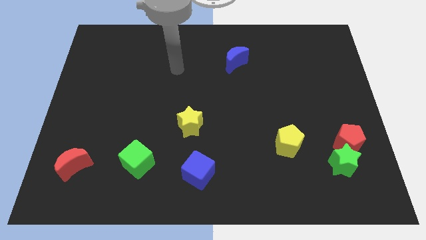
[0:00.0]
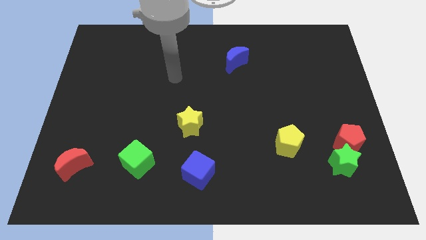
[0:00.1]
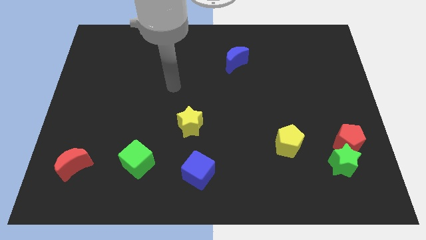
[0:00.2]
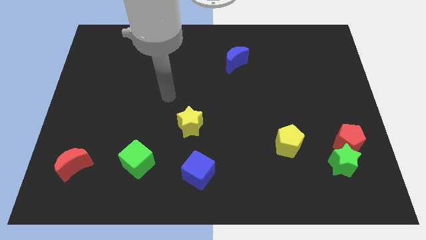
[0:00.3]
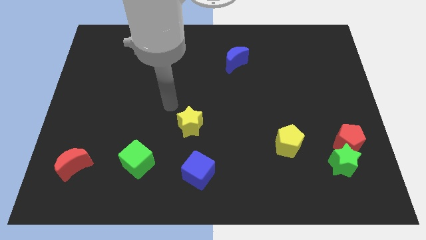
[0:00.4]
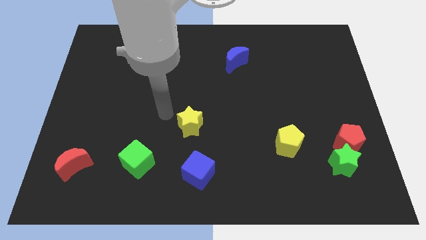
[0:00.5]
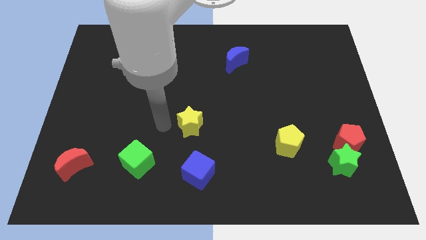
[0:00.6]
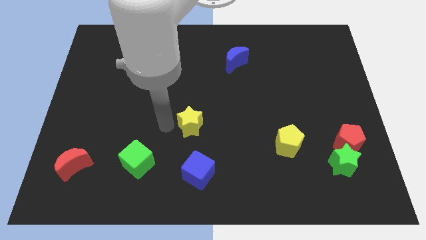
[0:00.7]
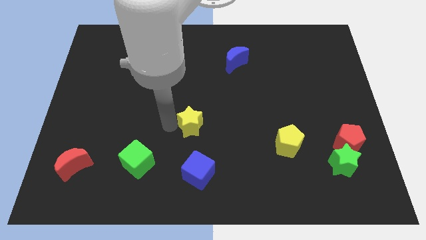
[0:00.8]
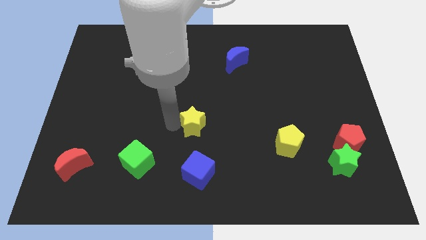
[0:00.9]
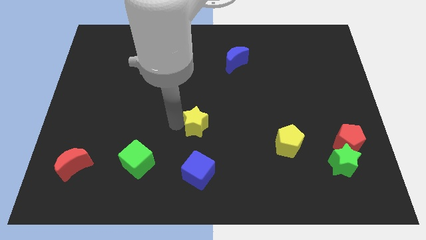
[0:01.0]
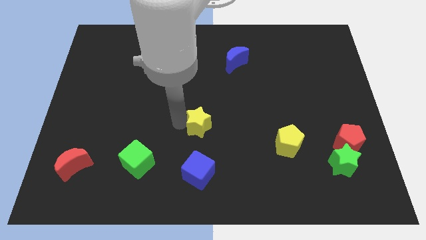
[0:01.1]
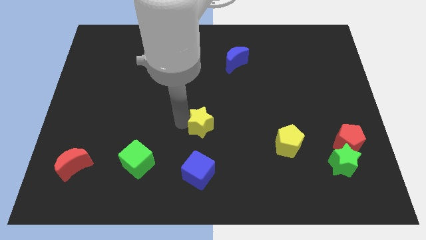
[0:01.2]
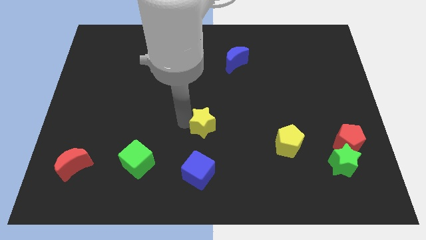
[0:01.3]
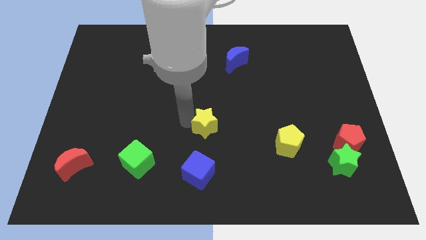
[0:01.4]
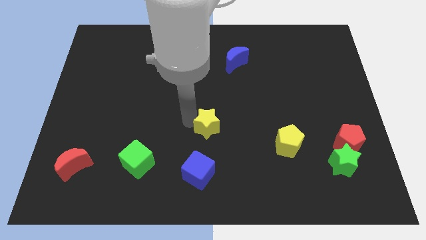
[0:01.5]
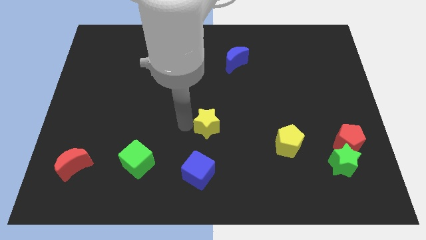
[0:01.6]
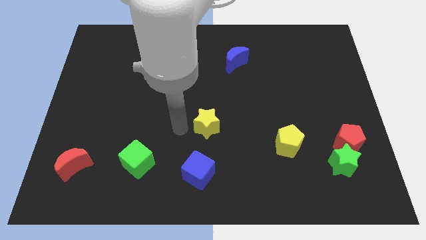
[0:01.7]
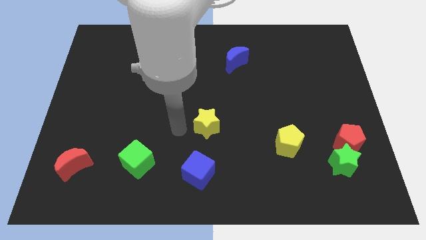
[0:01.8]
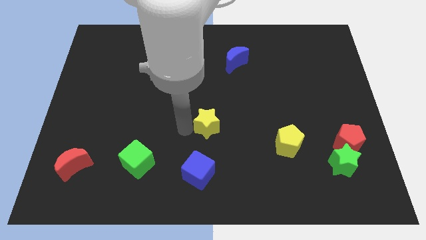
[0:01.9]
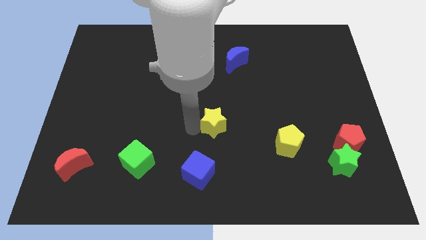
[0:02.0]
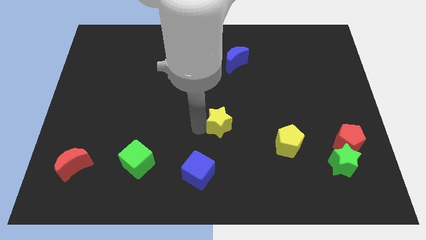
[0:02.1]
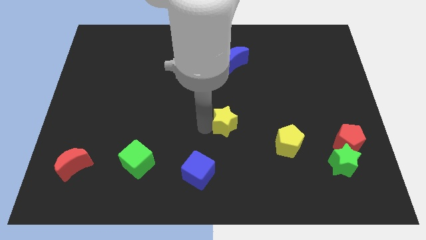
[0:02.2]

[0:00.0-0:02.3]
move the yellow star somewhat to the right

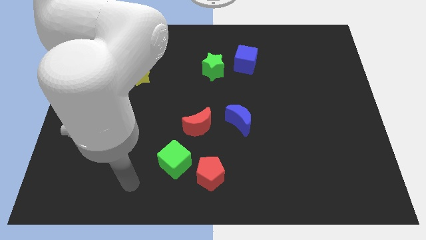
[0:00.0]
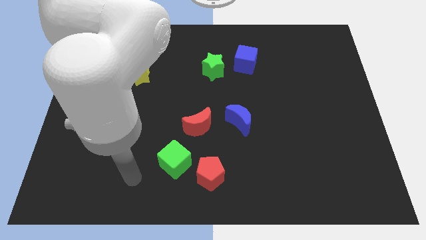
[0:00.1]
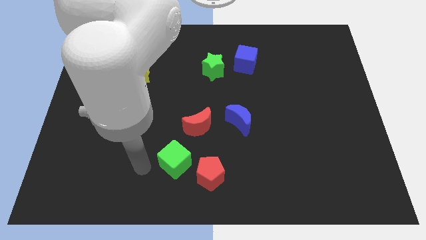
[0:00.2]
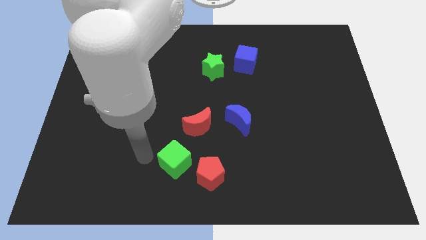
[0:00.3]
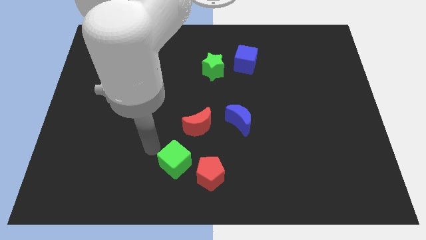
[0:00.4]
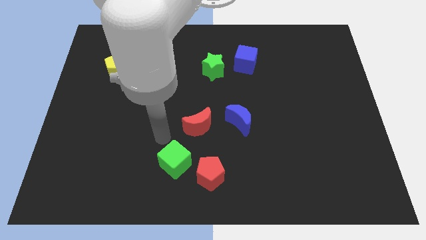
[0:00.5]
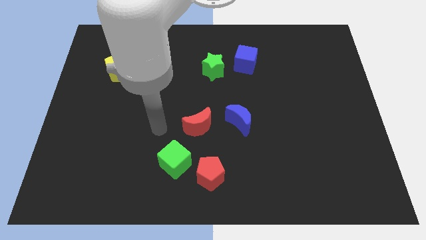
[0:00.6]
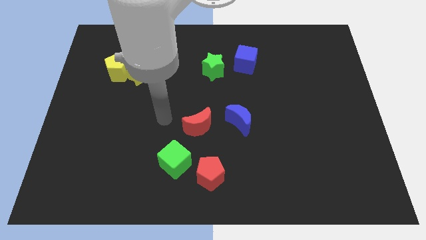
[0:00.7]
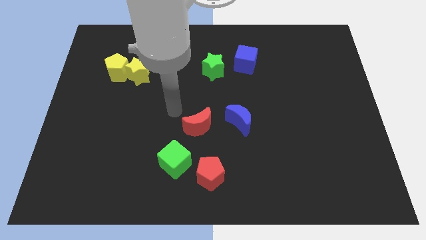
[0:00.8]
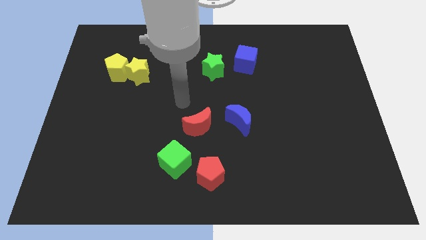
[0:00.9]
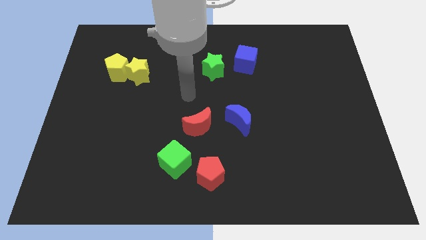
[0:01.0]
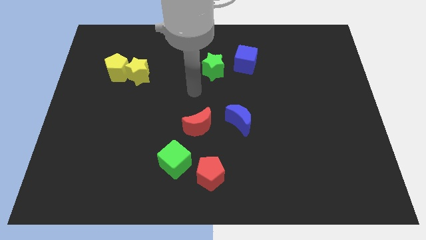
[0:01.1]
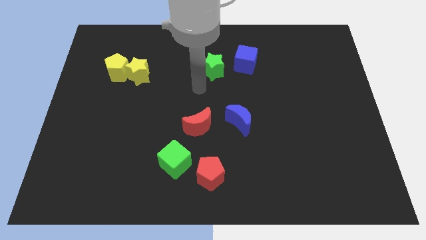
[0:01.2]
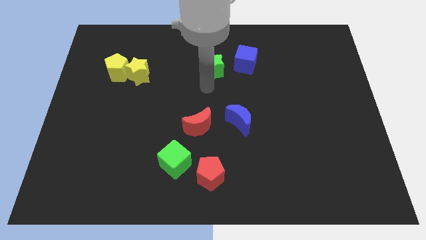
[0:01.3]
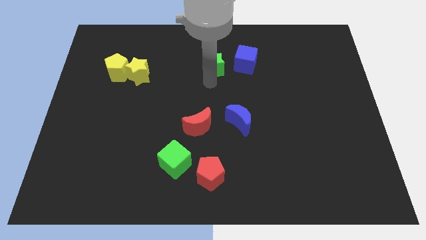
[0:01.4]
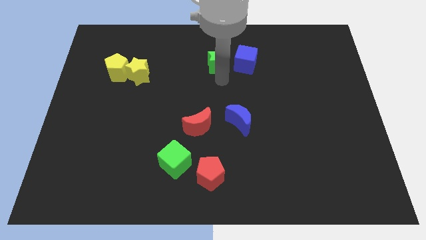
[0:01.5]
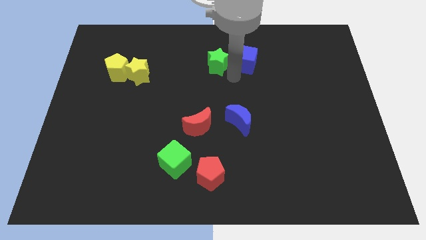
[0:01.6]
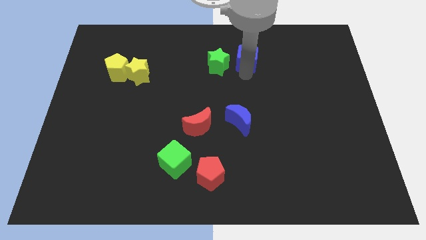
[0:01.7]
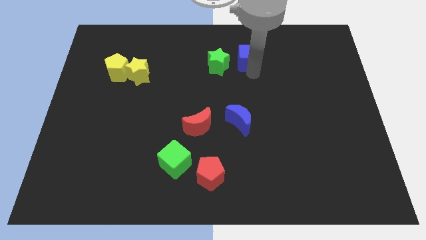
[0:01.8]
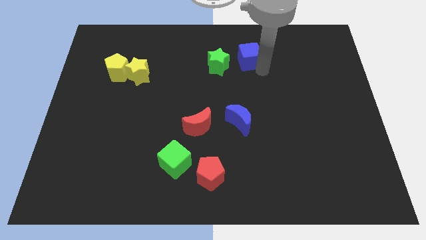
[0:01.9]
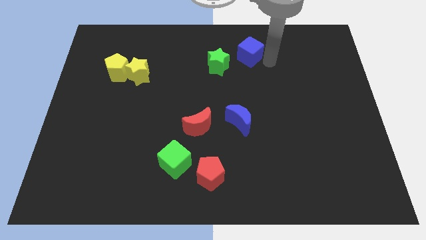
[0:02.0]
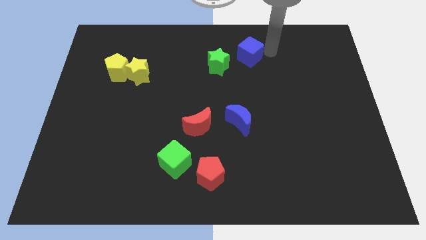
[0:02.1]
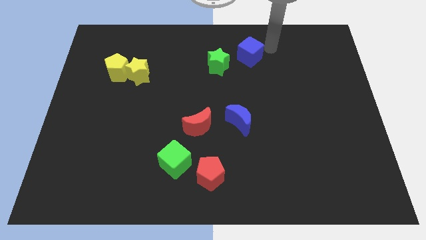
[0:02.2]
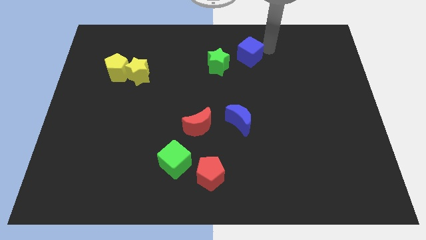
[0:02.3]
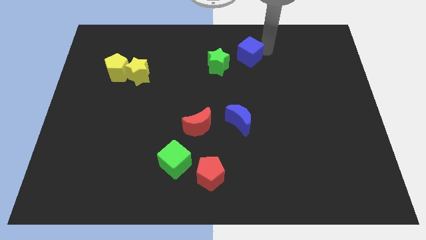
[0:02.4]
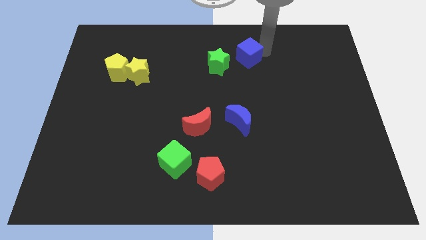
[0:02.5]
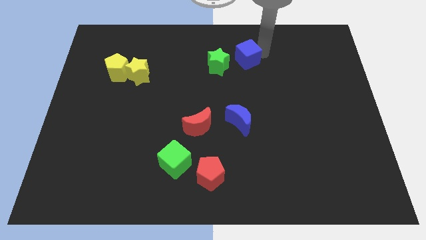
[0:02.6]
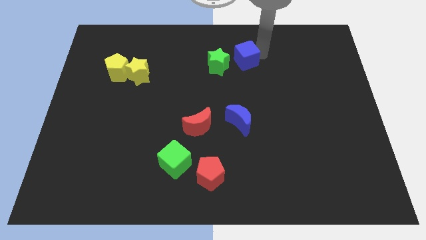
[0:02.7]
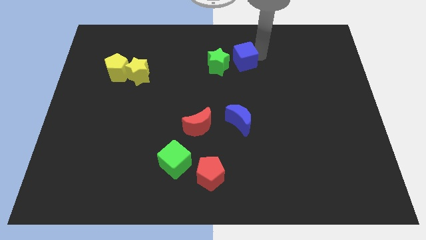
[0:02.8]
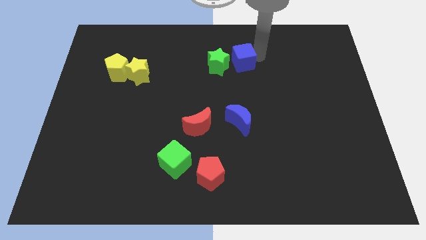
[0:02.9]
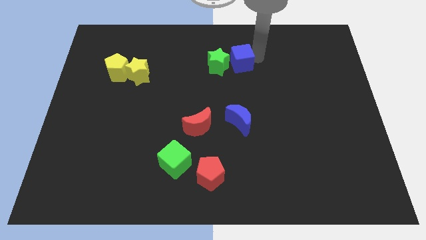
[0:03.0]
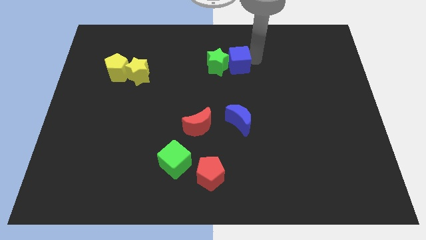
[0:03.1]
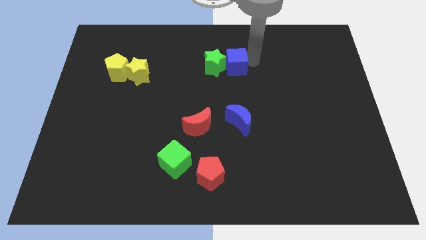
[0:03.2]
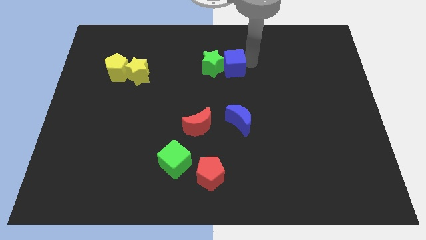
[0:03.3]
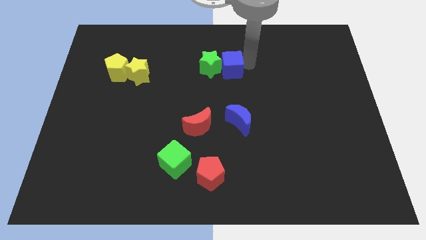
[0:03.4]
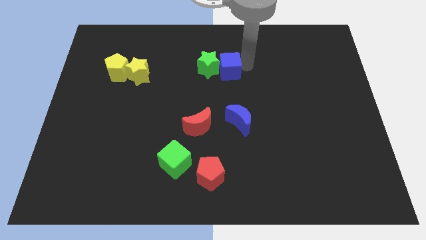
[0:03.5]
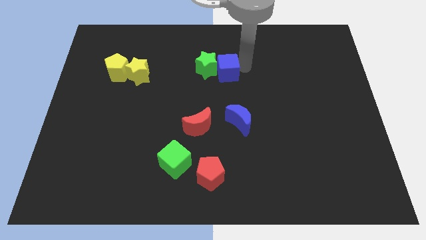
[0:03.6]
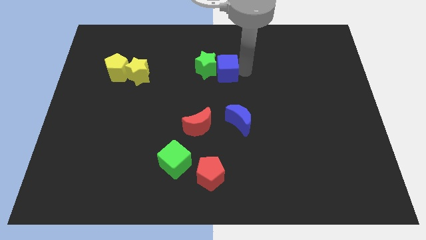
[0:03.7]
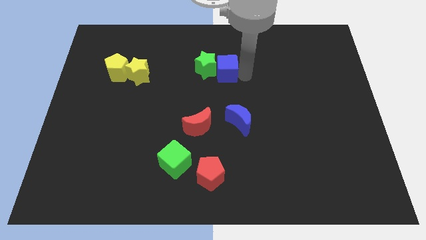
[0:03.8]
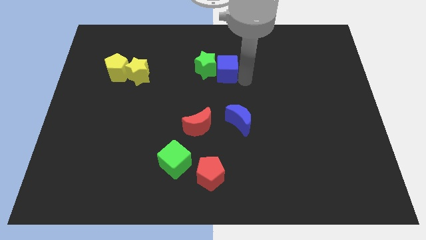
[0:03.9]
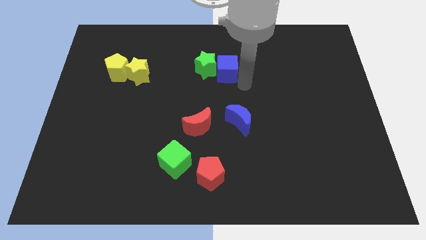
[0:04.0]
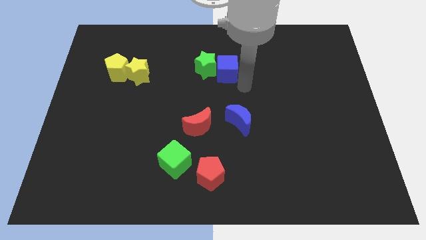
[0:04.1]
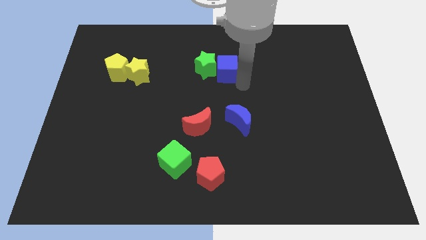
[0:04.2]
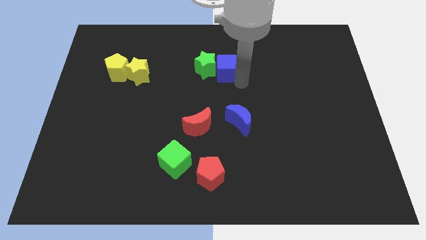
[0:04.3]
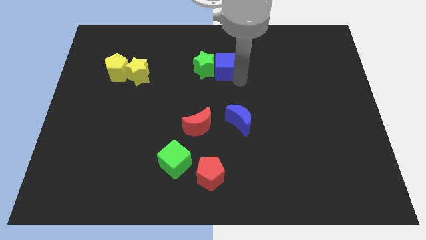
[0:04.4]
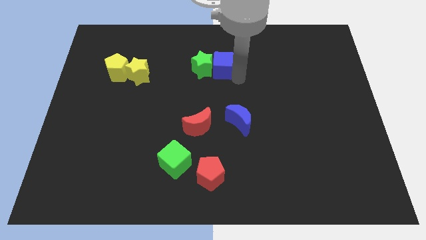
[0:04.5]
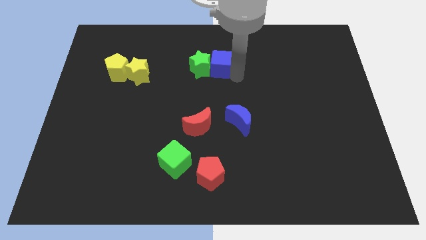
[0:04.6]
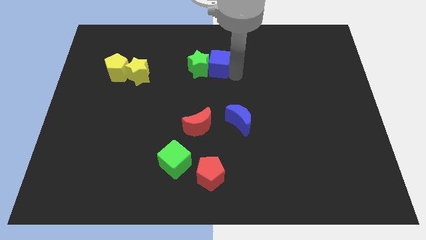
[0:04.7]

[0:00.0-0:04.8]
push the blue cube somewhat left

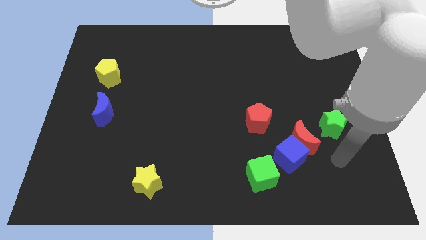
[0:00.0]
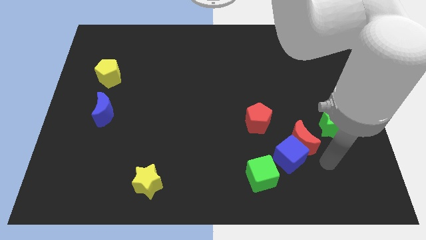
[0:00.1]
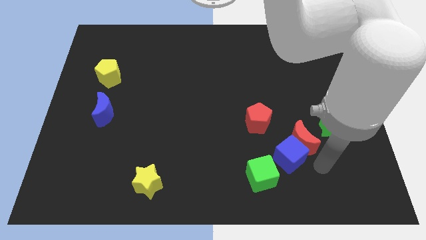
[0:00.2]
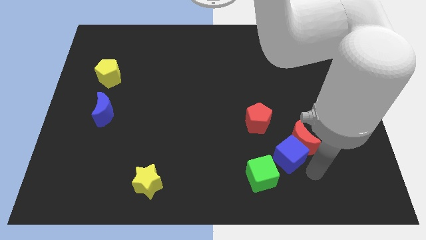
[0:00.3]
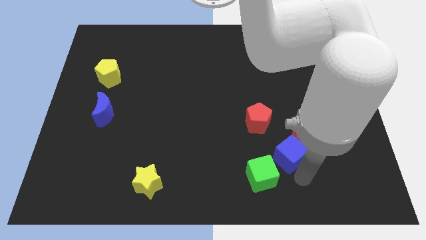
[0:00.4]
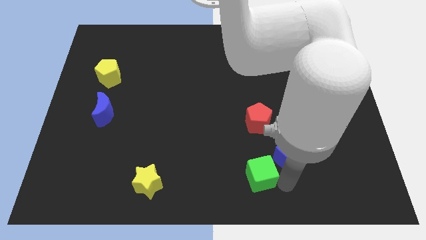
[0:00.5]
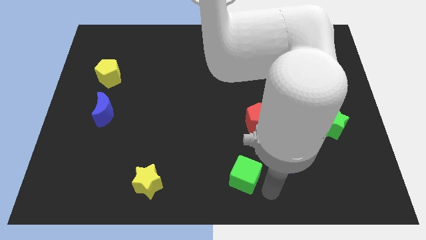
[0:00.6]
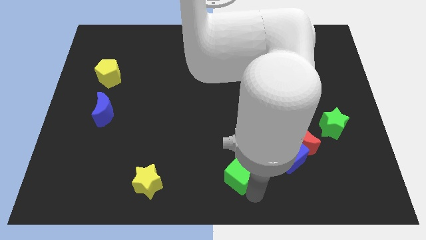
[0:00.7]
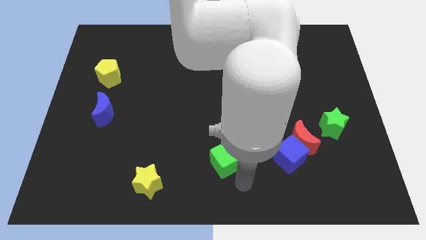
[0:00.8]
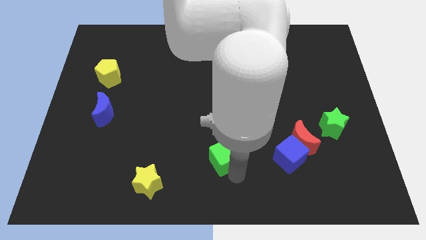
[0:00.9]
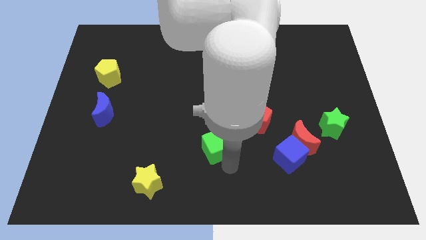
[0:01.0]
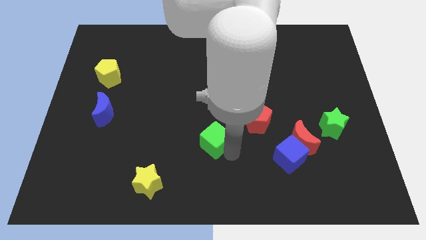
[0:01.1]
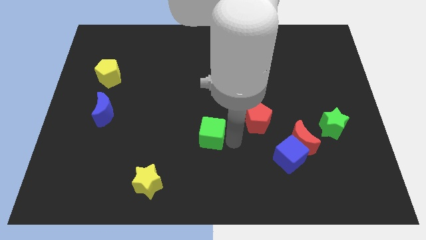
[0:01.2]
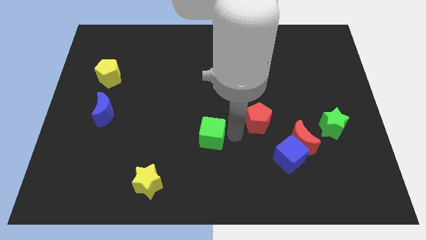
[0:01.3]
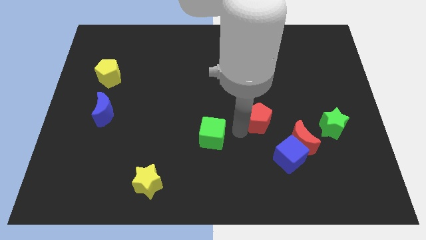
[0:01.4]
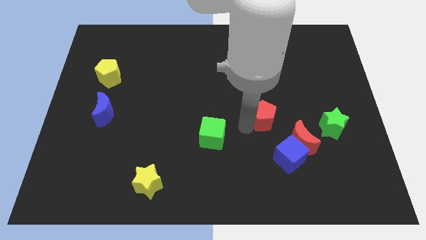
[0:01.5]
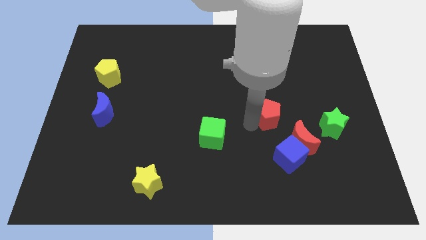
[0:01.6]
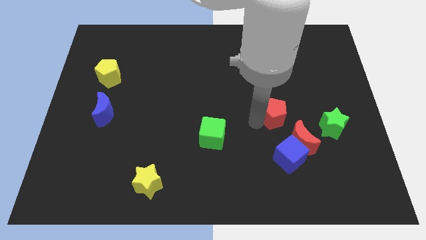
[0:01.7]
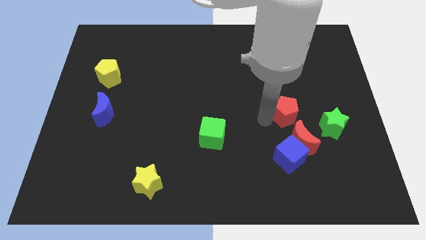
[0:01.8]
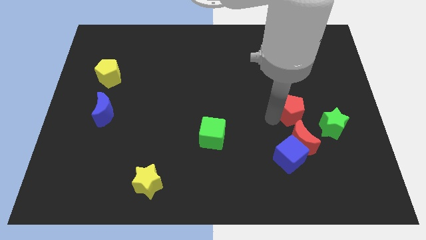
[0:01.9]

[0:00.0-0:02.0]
slide the red pentagon up and then to the right a little bit
